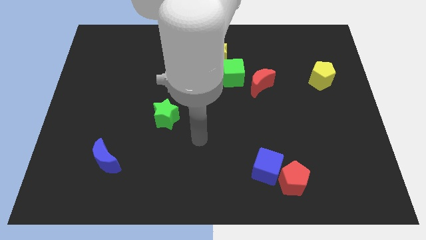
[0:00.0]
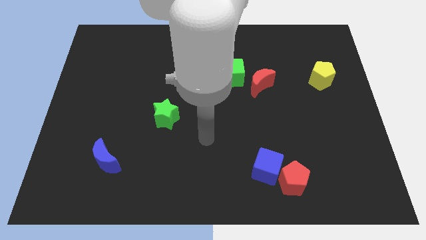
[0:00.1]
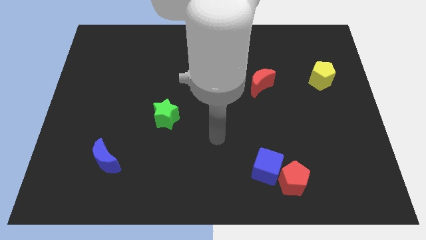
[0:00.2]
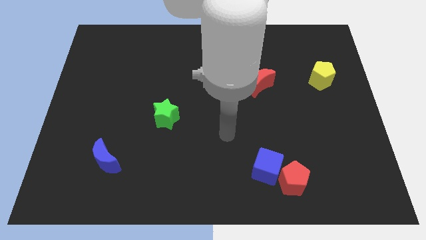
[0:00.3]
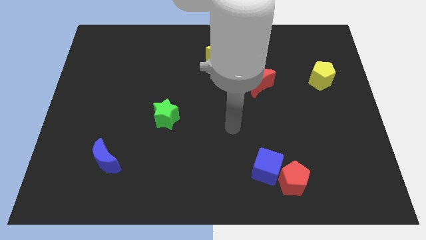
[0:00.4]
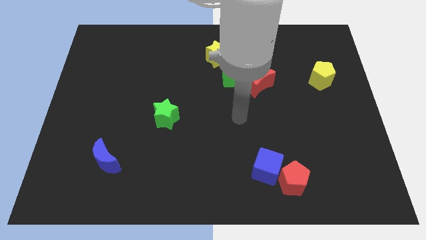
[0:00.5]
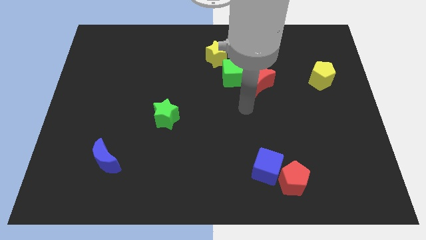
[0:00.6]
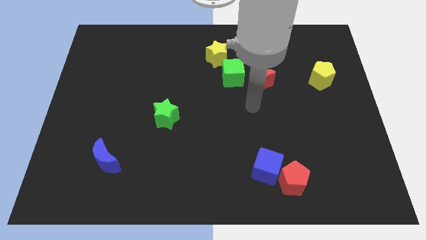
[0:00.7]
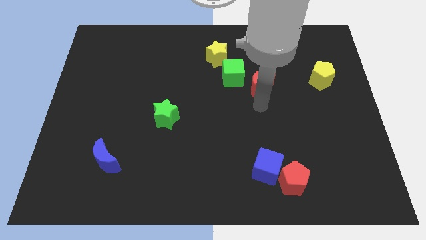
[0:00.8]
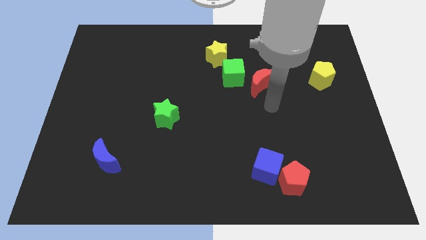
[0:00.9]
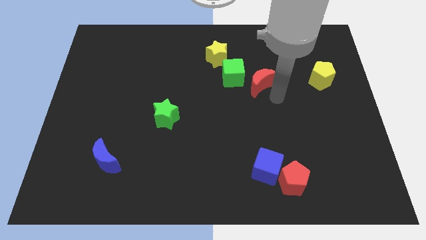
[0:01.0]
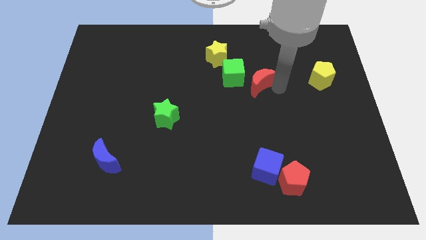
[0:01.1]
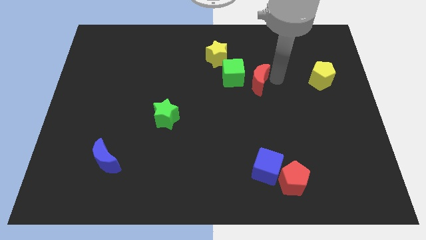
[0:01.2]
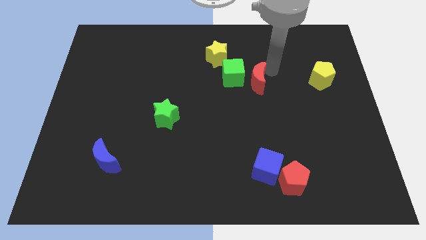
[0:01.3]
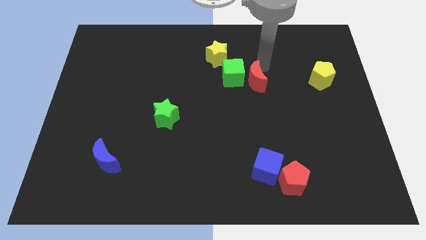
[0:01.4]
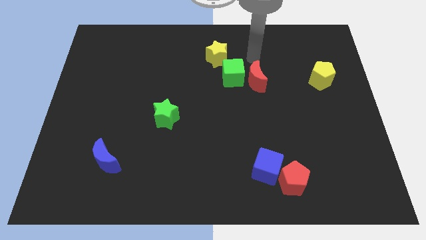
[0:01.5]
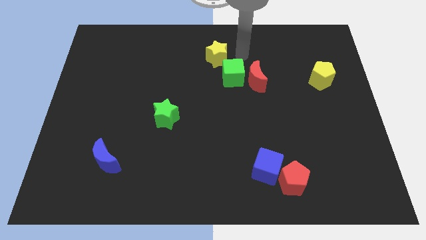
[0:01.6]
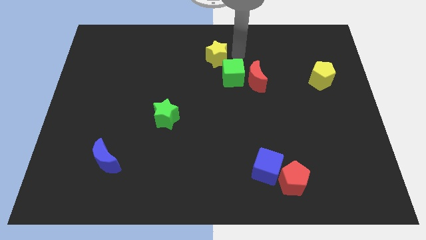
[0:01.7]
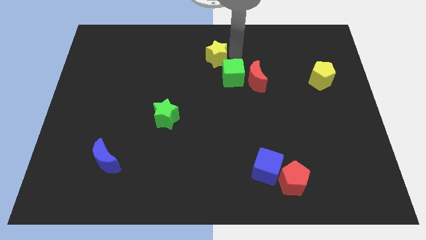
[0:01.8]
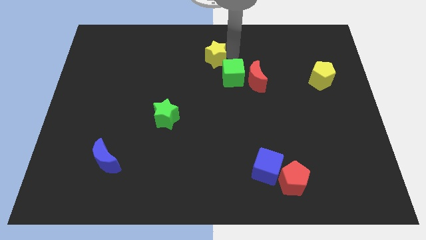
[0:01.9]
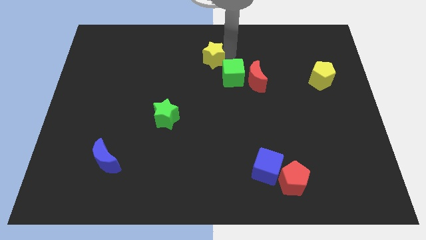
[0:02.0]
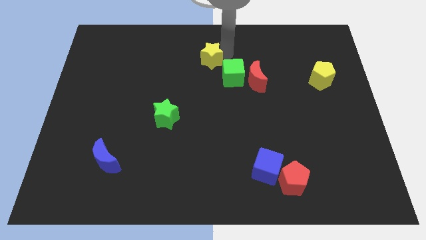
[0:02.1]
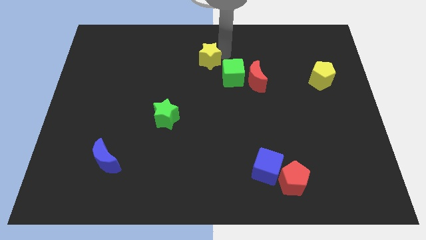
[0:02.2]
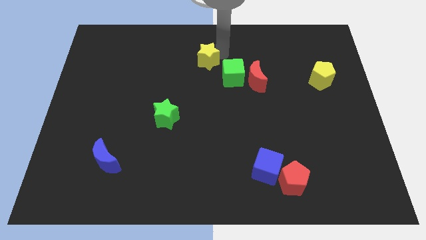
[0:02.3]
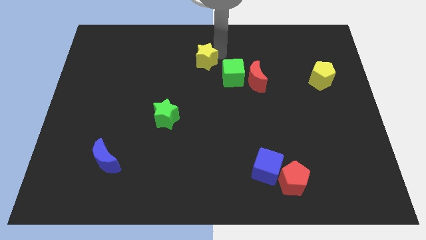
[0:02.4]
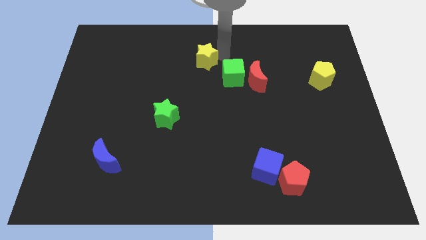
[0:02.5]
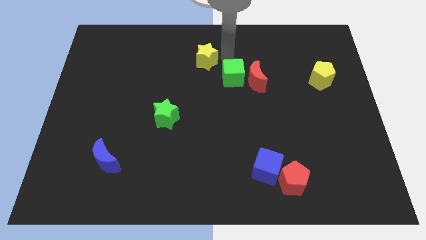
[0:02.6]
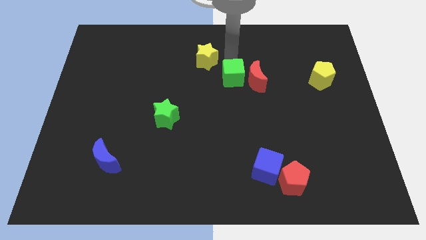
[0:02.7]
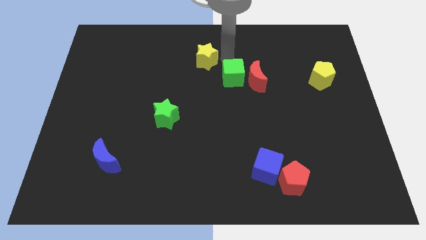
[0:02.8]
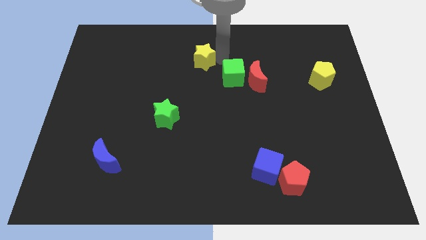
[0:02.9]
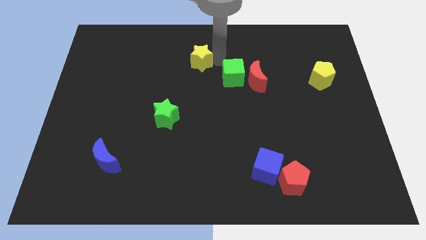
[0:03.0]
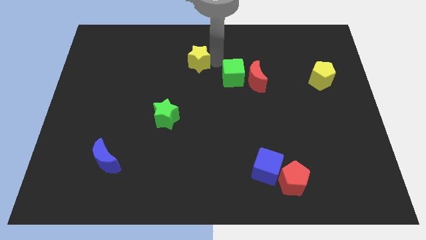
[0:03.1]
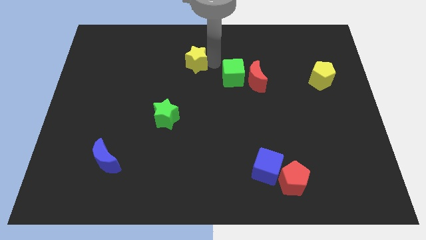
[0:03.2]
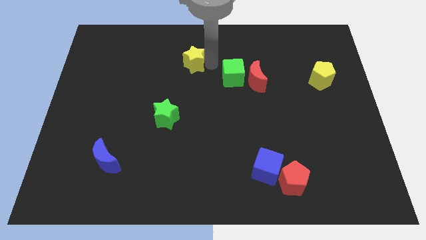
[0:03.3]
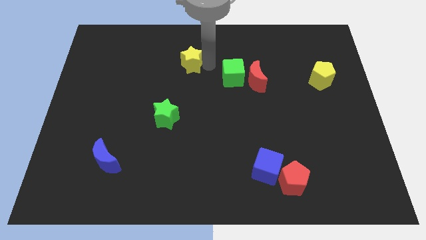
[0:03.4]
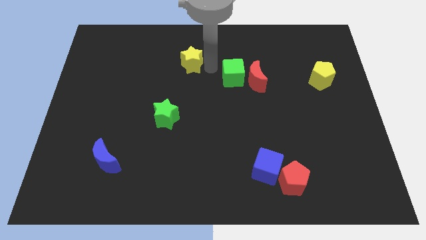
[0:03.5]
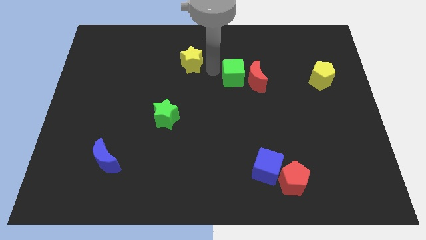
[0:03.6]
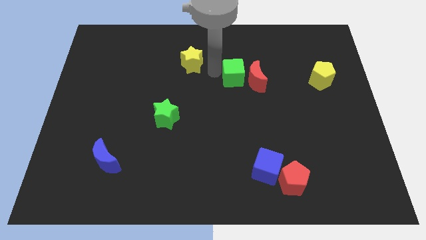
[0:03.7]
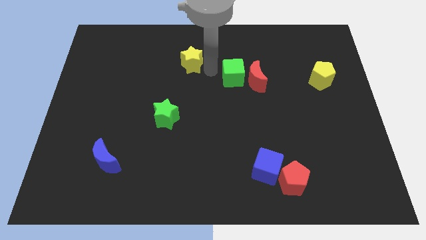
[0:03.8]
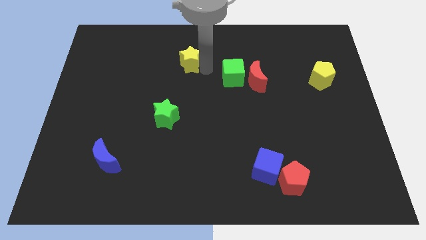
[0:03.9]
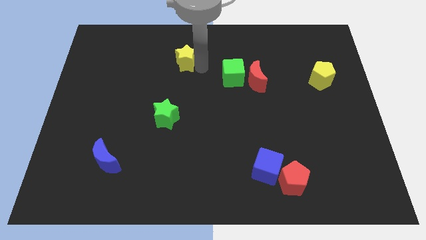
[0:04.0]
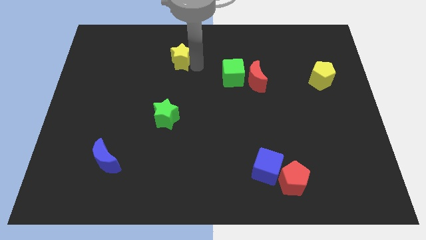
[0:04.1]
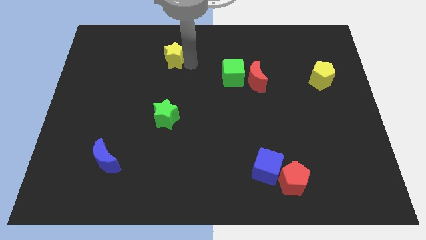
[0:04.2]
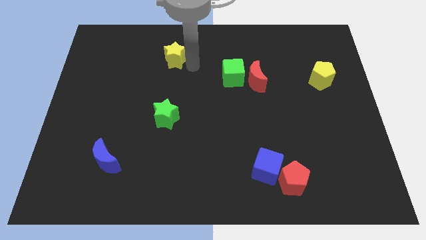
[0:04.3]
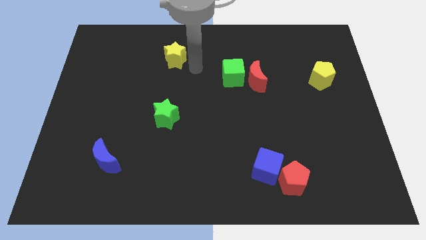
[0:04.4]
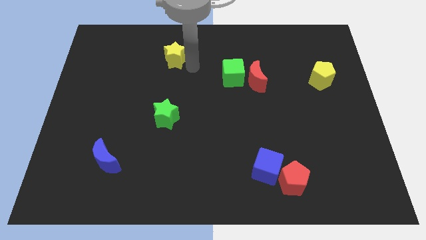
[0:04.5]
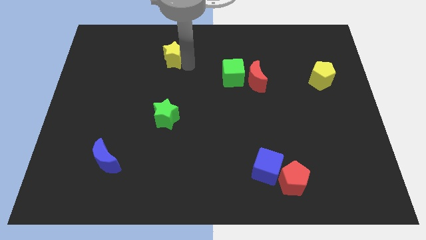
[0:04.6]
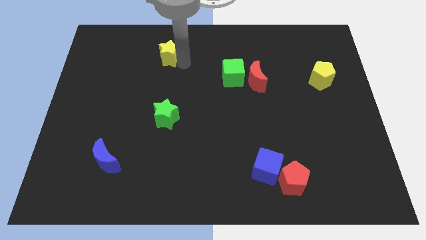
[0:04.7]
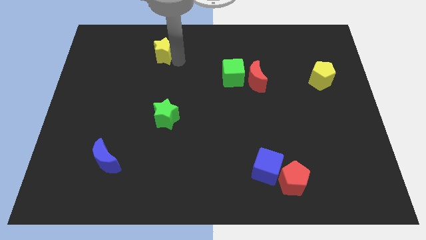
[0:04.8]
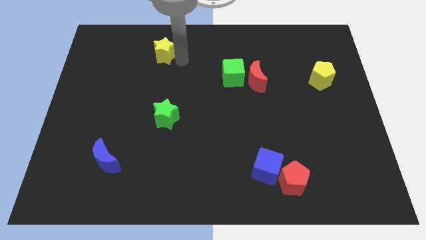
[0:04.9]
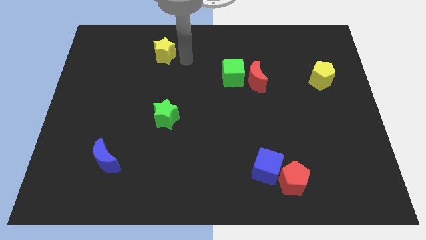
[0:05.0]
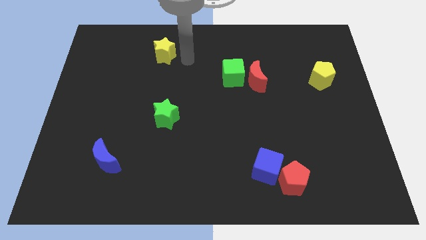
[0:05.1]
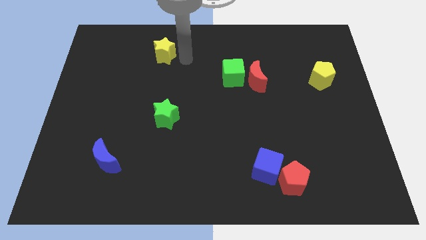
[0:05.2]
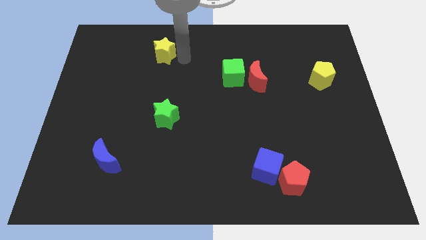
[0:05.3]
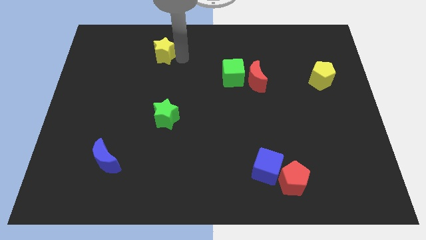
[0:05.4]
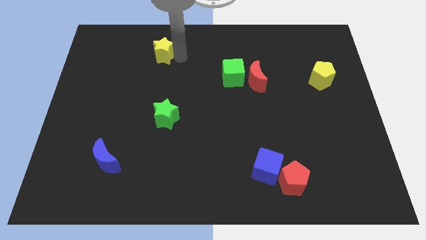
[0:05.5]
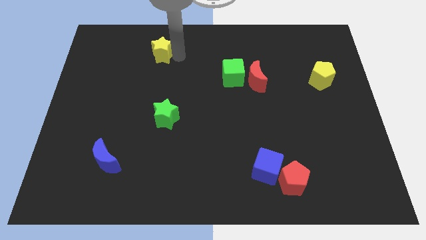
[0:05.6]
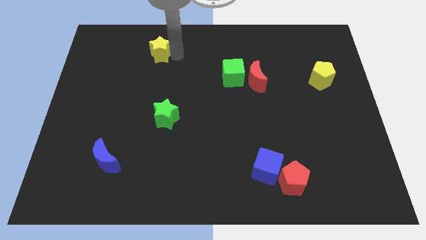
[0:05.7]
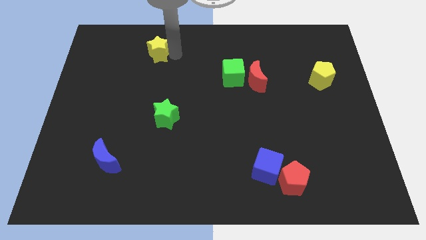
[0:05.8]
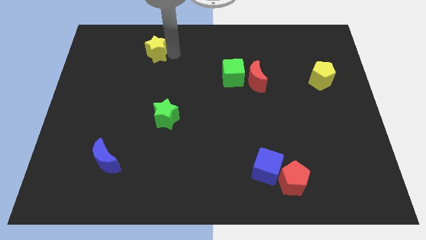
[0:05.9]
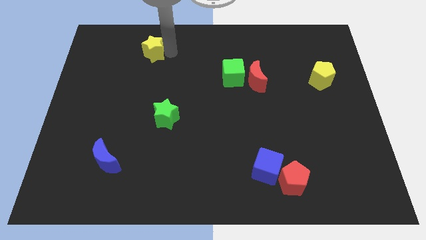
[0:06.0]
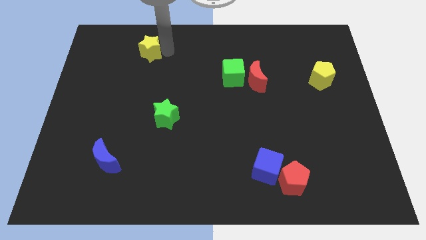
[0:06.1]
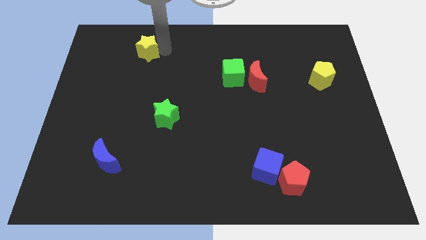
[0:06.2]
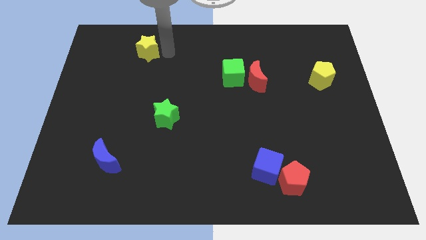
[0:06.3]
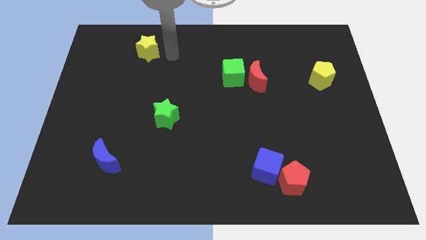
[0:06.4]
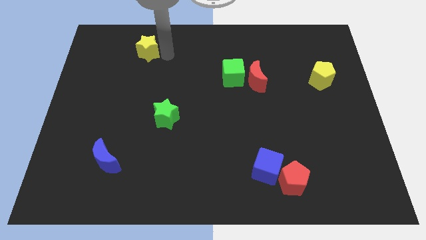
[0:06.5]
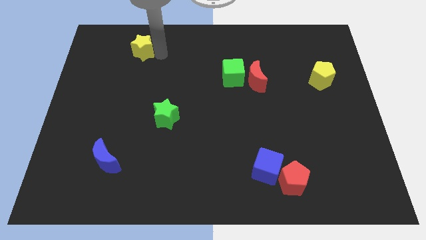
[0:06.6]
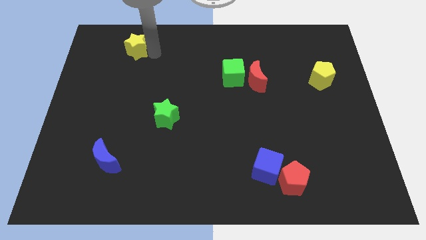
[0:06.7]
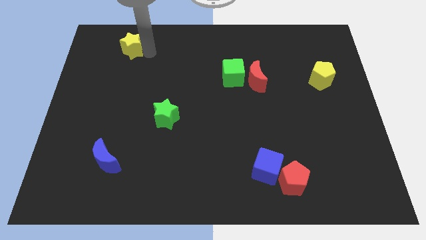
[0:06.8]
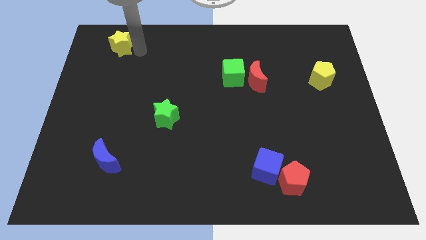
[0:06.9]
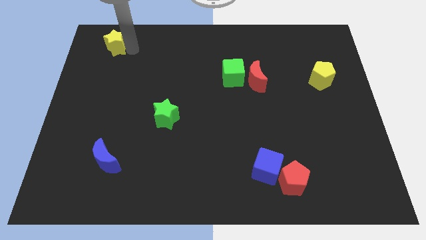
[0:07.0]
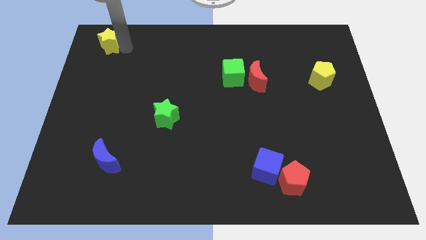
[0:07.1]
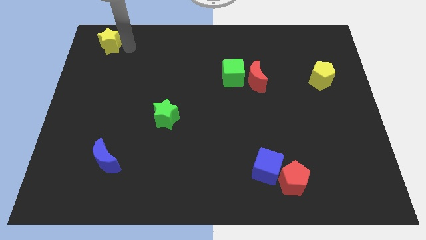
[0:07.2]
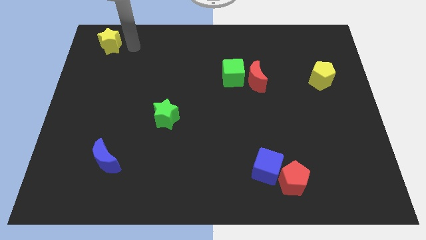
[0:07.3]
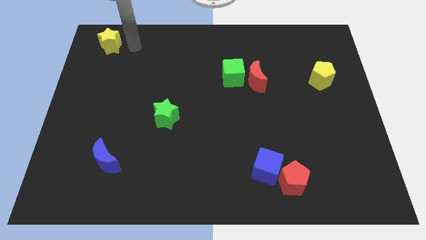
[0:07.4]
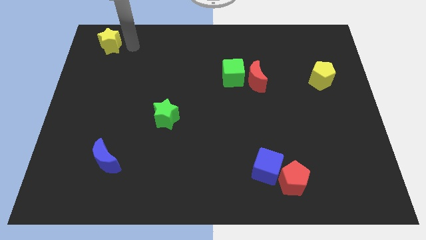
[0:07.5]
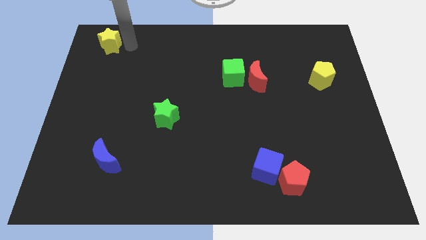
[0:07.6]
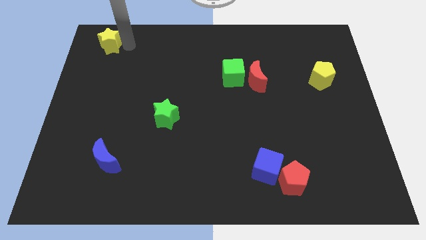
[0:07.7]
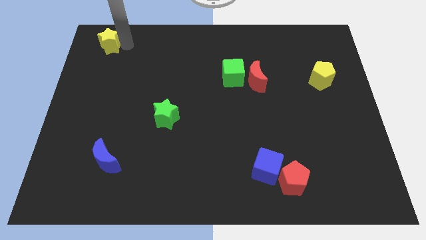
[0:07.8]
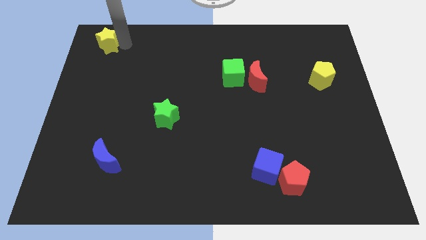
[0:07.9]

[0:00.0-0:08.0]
slide the yellow star to the top left
